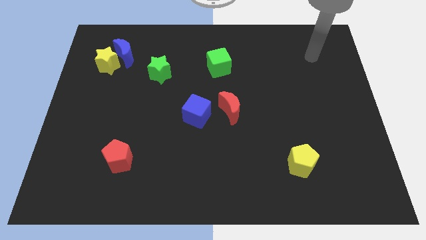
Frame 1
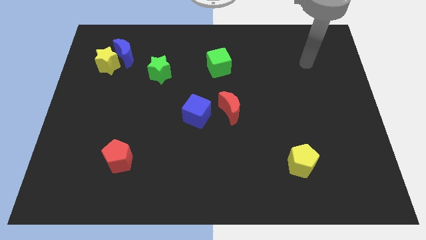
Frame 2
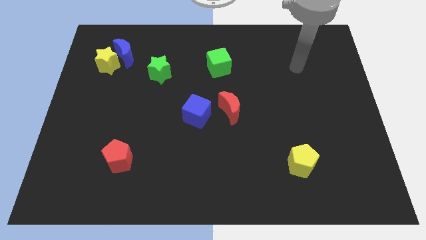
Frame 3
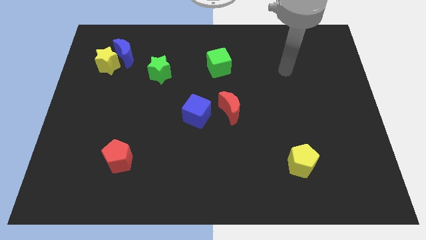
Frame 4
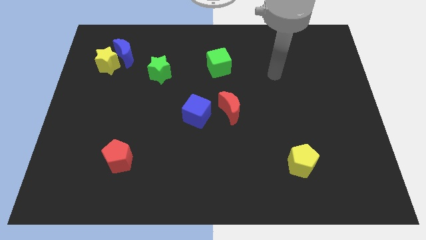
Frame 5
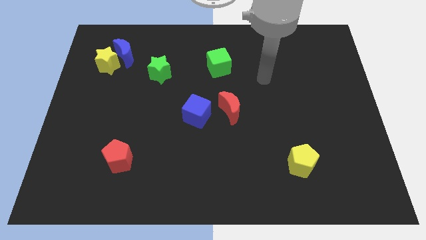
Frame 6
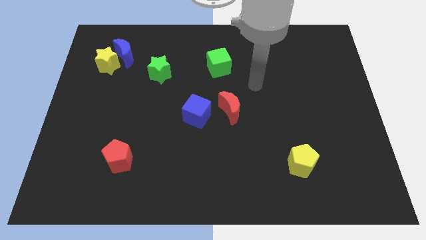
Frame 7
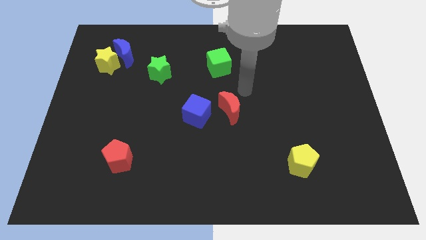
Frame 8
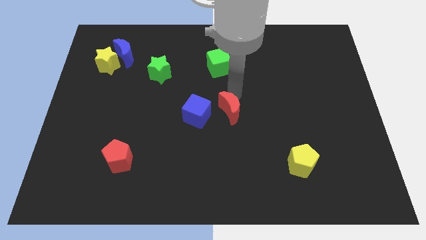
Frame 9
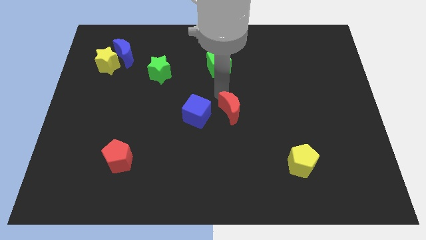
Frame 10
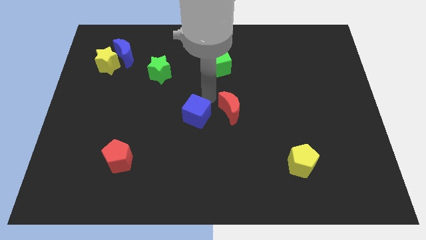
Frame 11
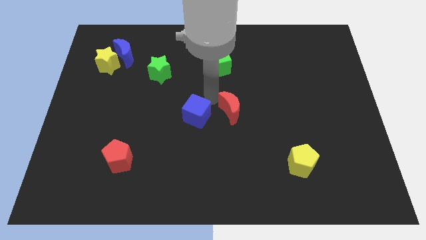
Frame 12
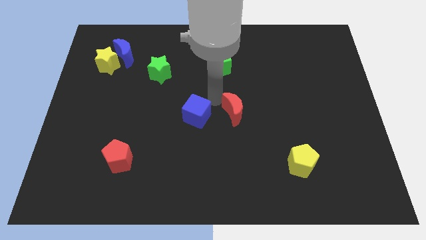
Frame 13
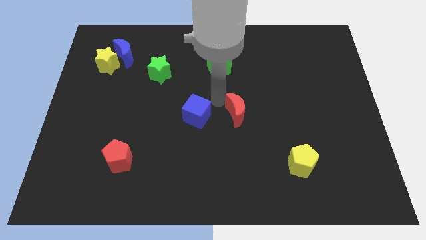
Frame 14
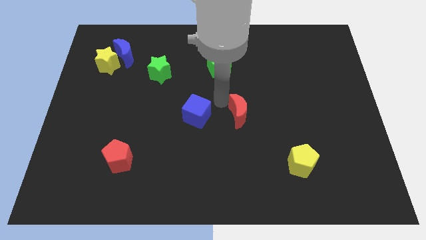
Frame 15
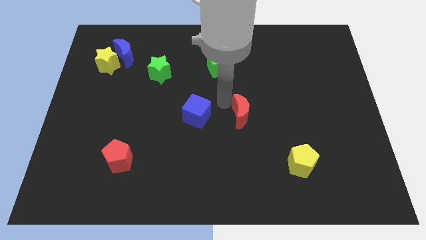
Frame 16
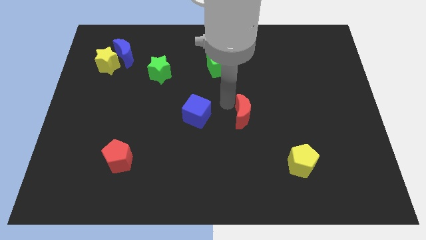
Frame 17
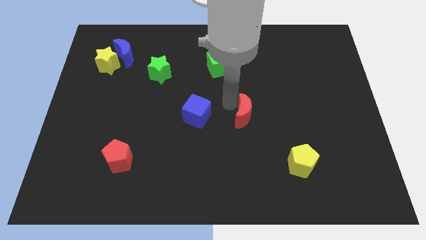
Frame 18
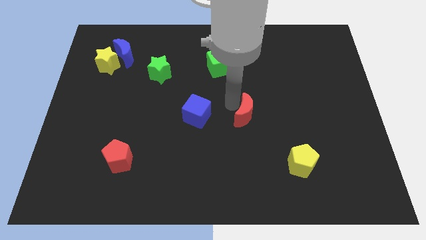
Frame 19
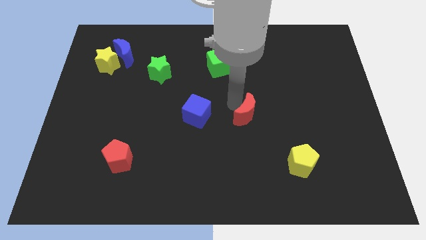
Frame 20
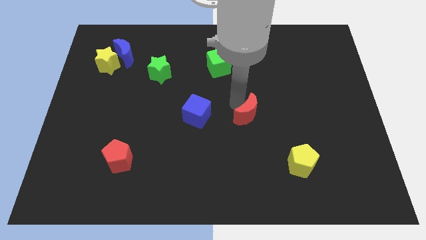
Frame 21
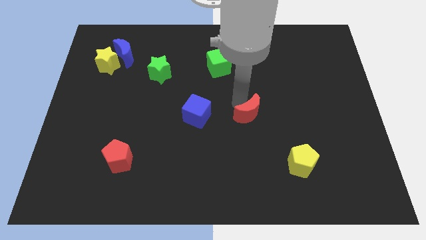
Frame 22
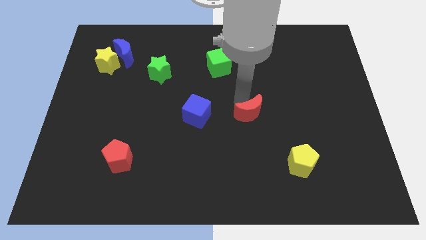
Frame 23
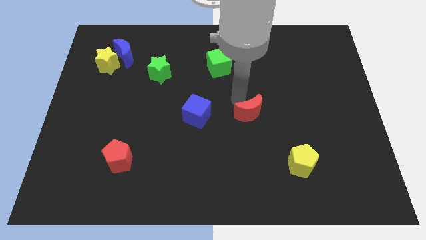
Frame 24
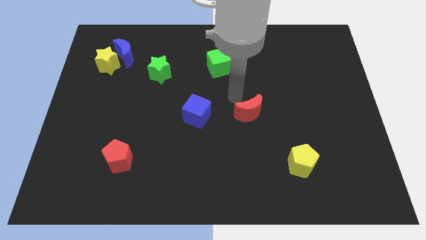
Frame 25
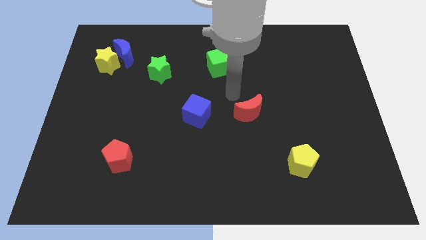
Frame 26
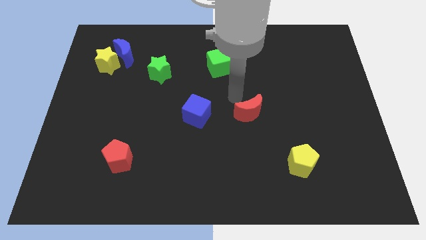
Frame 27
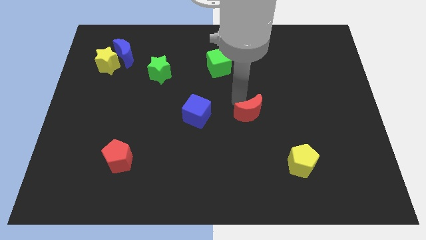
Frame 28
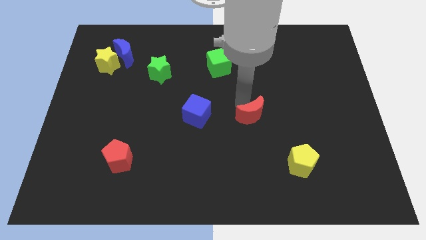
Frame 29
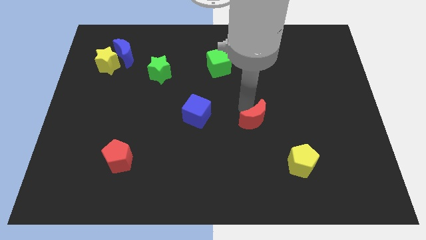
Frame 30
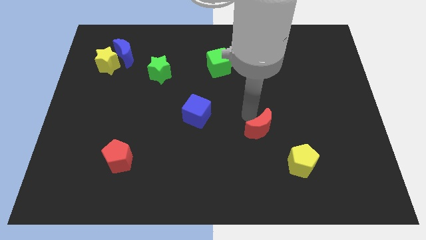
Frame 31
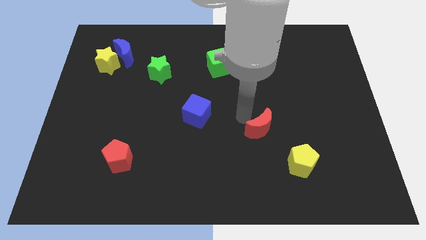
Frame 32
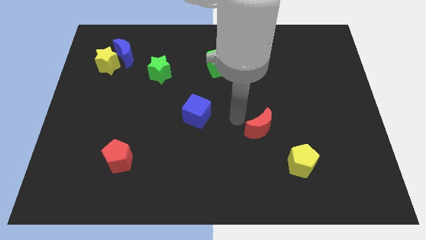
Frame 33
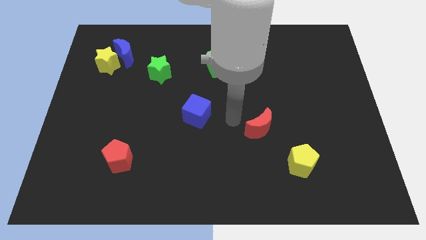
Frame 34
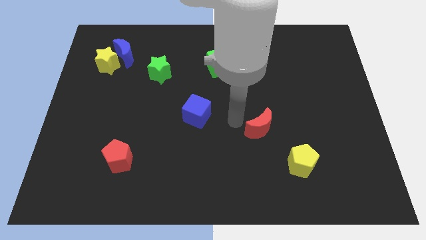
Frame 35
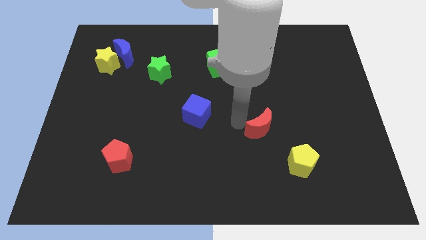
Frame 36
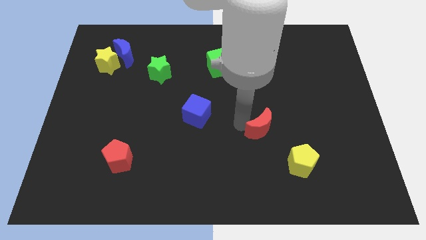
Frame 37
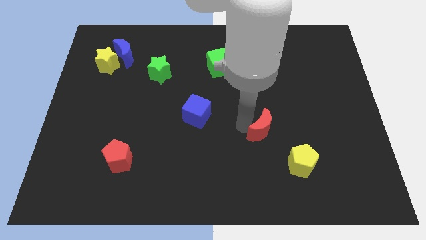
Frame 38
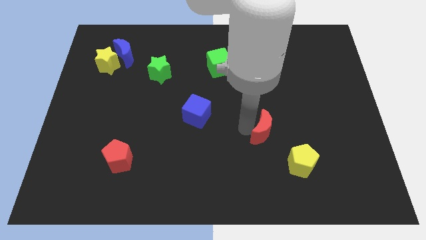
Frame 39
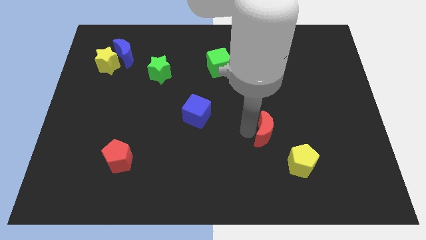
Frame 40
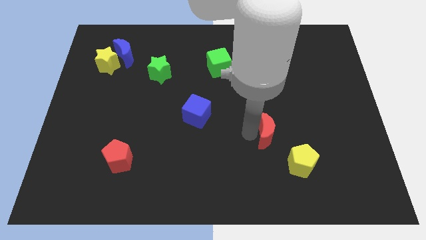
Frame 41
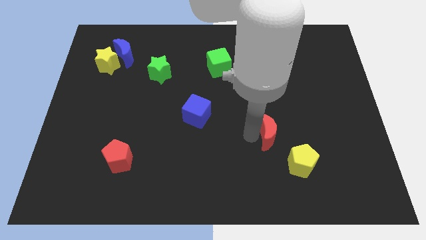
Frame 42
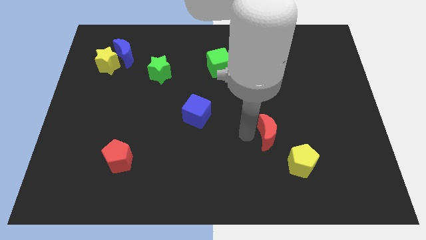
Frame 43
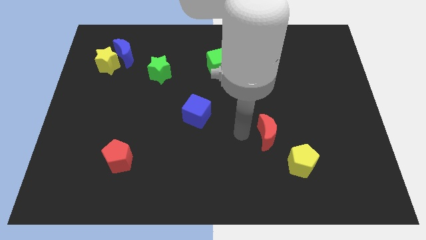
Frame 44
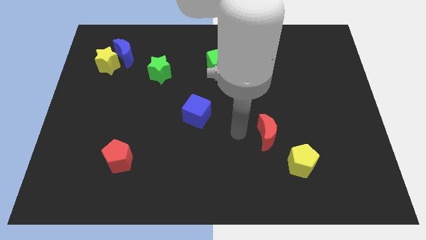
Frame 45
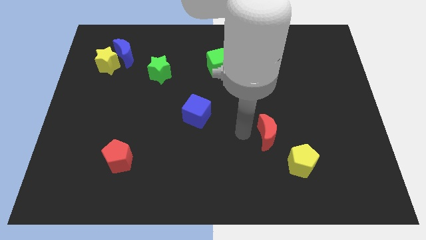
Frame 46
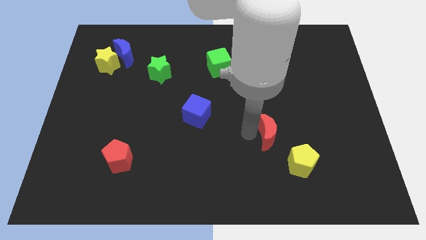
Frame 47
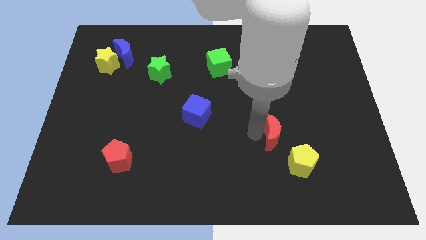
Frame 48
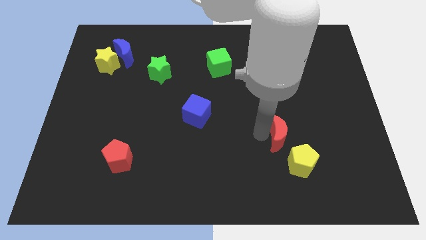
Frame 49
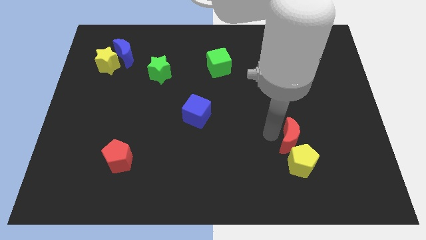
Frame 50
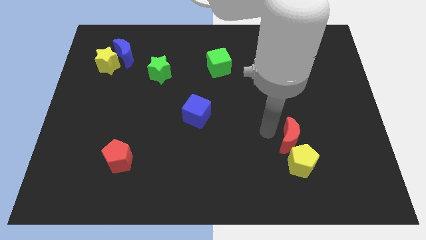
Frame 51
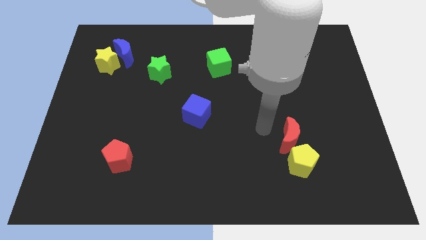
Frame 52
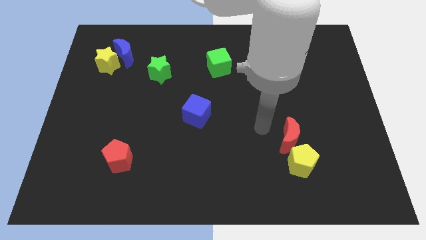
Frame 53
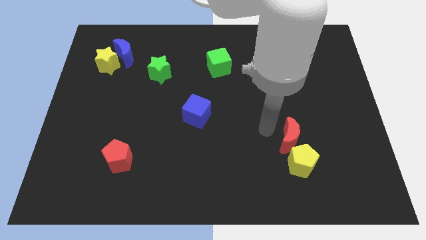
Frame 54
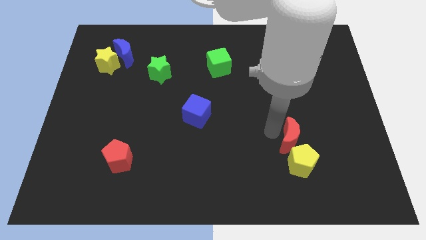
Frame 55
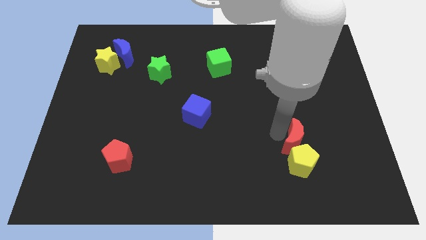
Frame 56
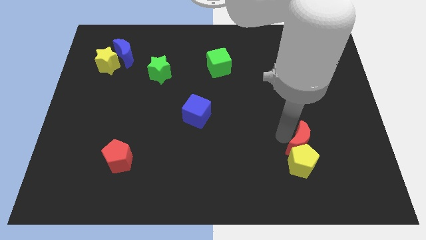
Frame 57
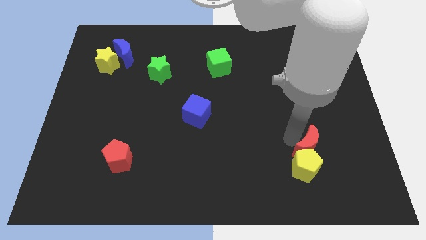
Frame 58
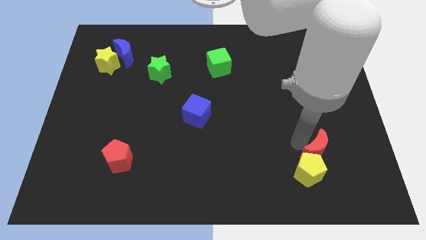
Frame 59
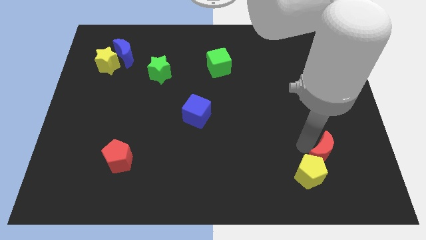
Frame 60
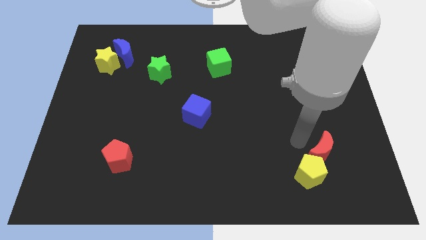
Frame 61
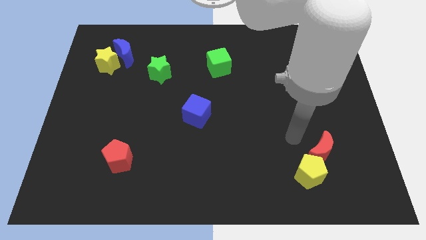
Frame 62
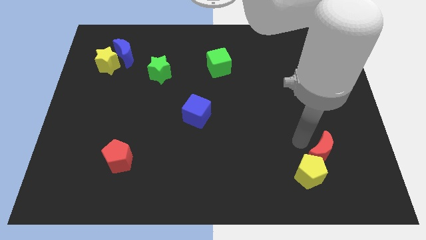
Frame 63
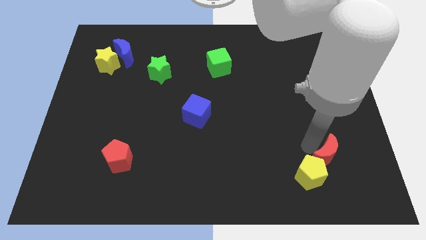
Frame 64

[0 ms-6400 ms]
push the red moon just right of the yellow pentagon
